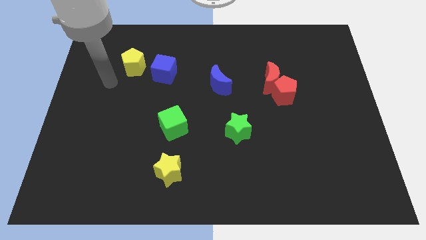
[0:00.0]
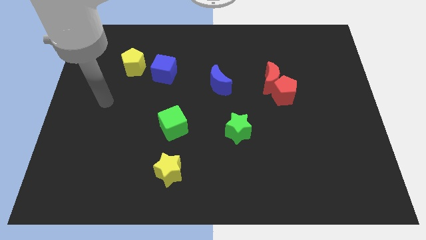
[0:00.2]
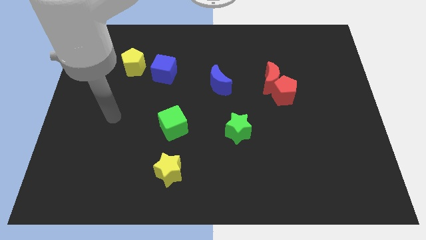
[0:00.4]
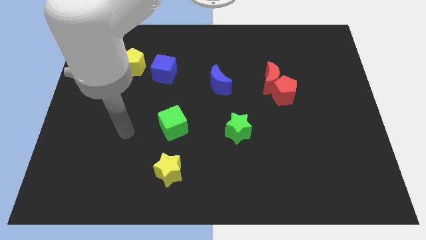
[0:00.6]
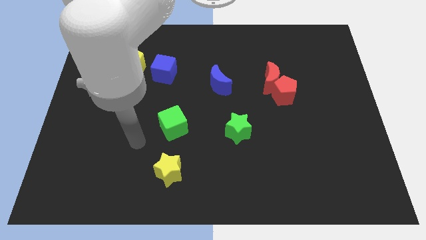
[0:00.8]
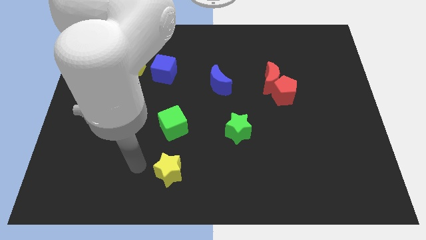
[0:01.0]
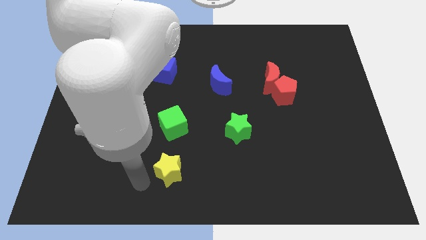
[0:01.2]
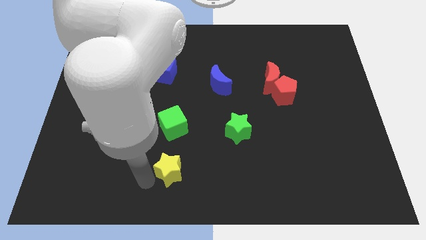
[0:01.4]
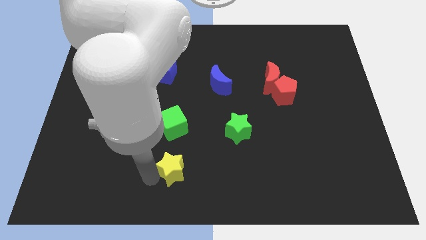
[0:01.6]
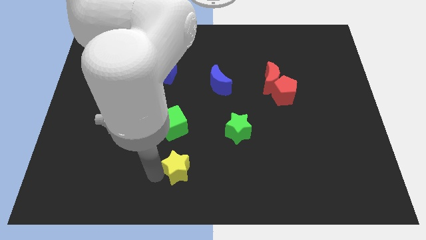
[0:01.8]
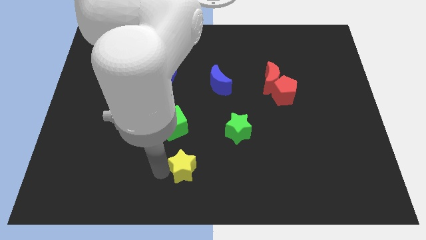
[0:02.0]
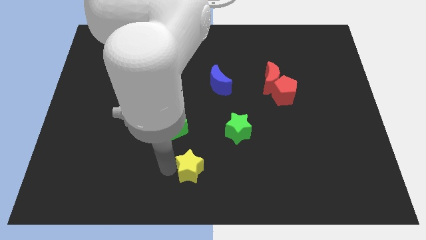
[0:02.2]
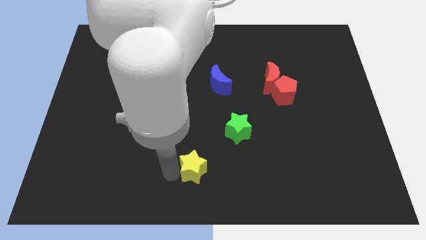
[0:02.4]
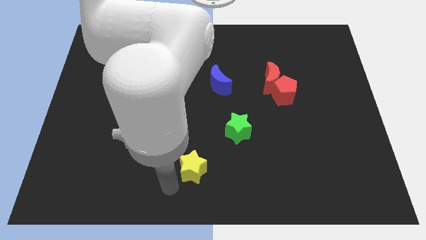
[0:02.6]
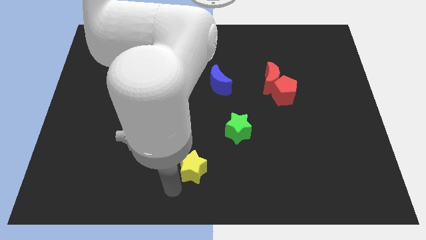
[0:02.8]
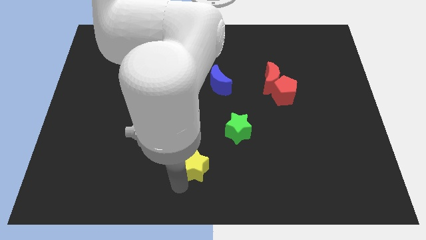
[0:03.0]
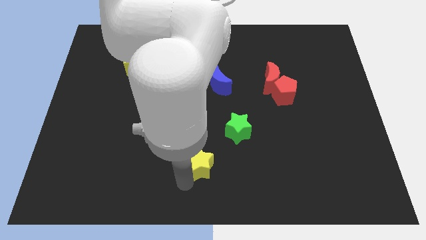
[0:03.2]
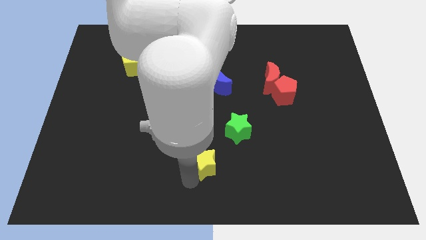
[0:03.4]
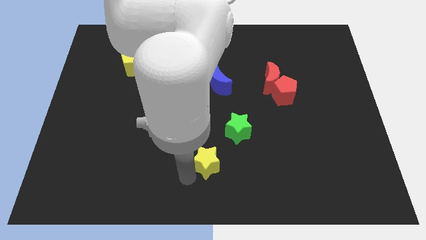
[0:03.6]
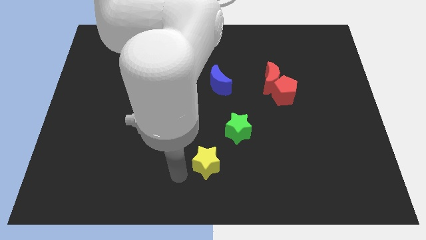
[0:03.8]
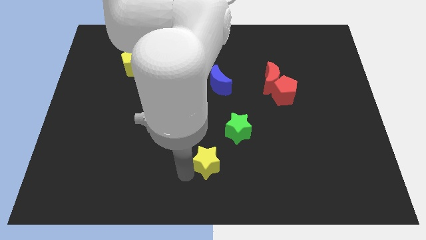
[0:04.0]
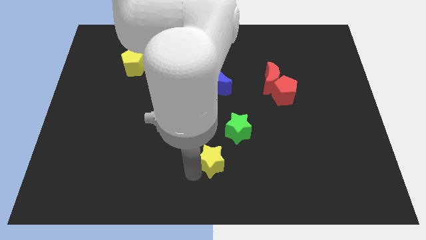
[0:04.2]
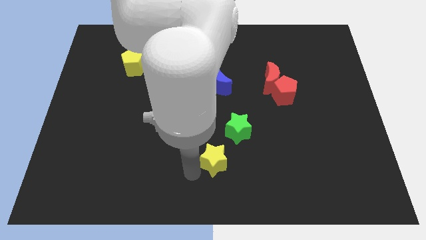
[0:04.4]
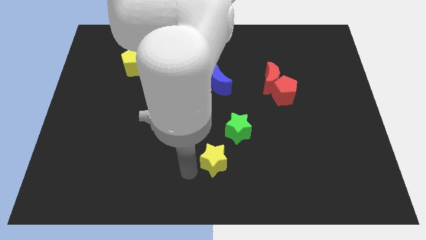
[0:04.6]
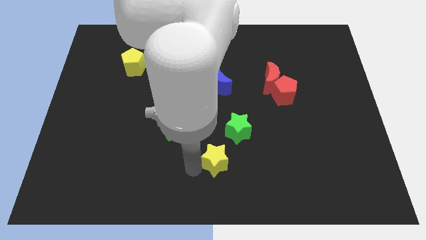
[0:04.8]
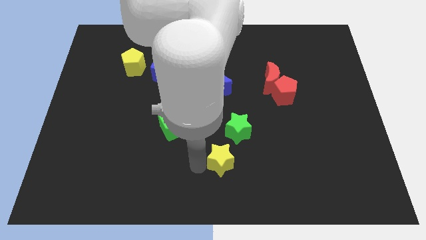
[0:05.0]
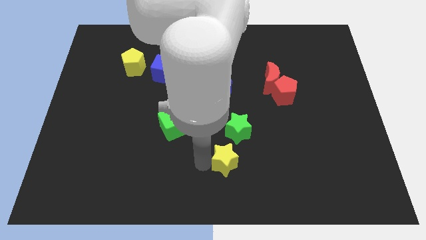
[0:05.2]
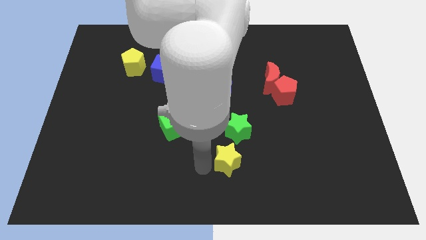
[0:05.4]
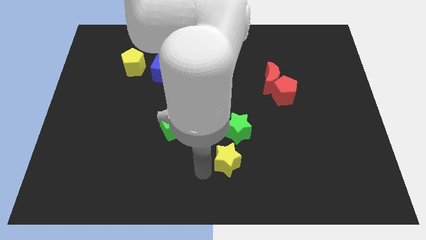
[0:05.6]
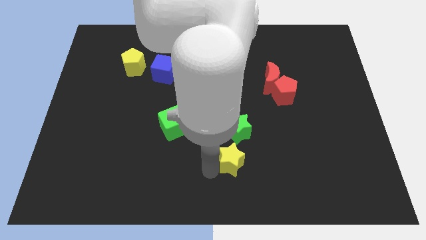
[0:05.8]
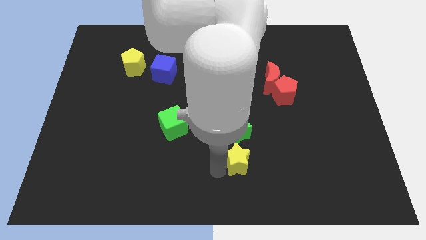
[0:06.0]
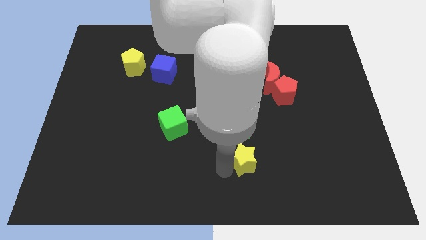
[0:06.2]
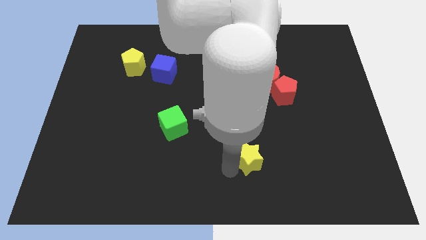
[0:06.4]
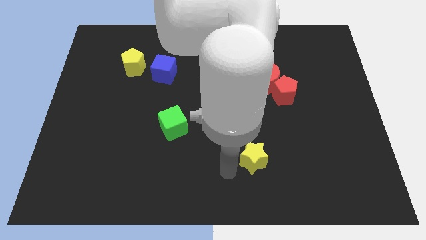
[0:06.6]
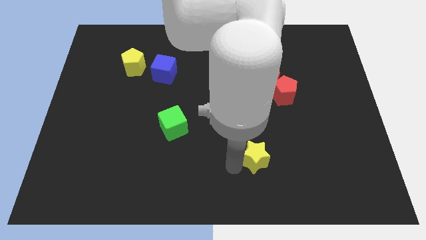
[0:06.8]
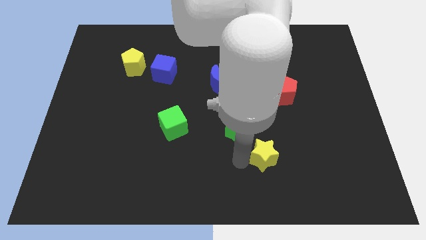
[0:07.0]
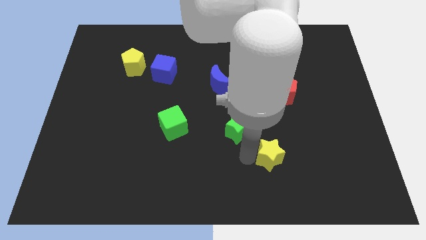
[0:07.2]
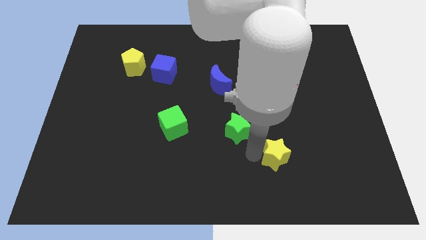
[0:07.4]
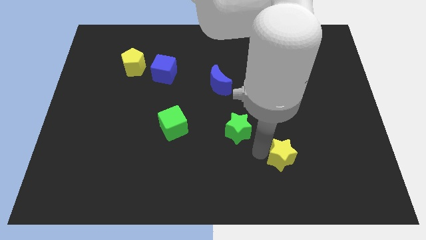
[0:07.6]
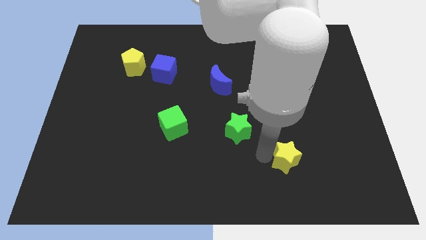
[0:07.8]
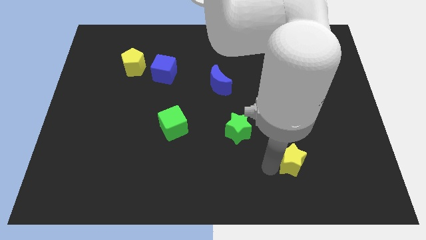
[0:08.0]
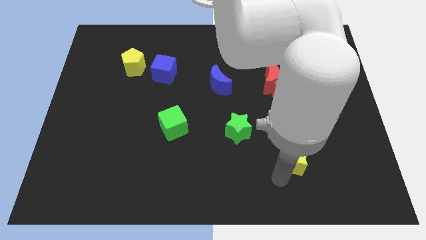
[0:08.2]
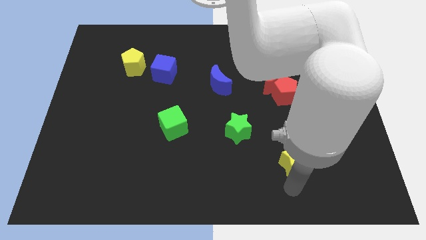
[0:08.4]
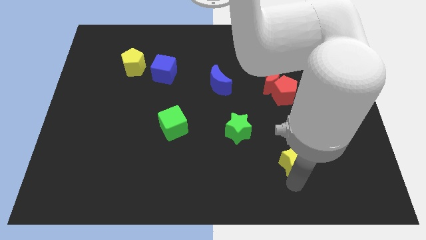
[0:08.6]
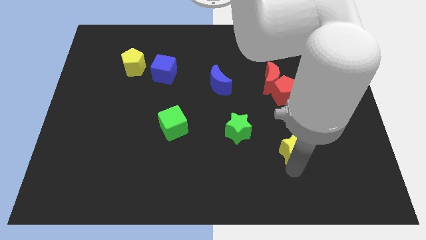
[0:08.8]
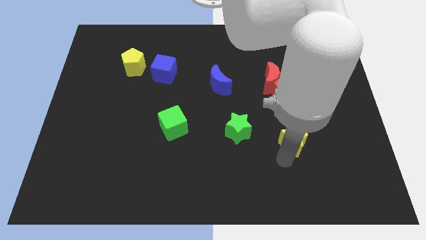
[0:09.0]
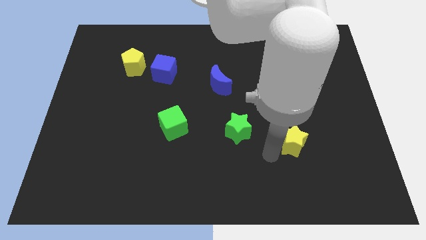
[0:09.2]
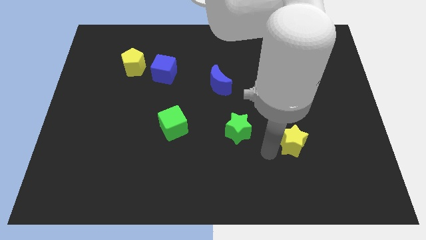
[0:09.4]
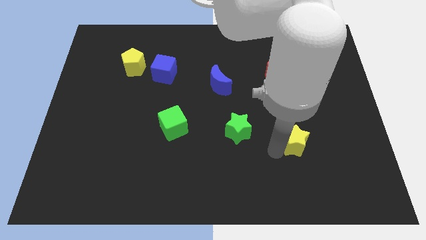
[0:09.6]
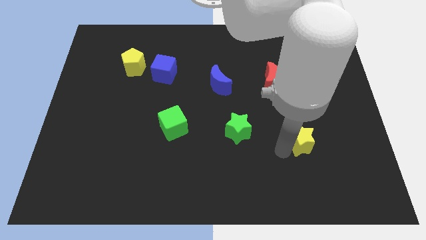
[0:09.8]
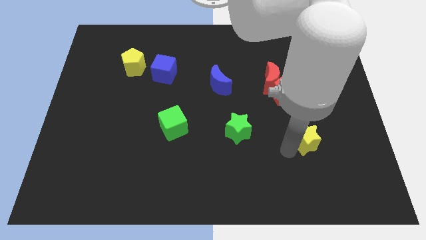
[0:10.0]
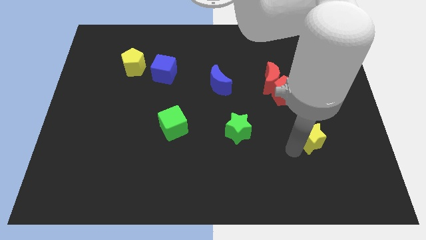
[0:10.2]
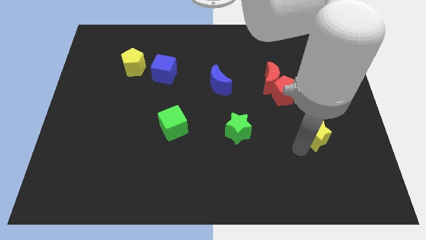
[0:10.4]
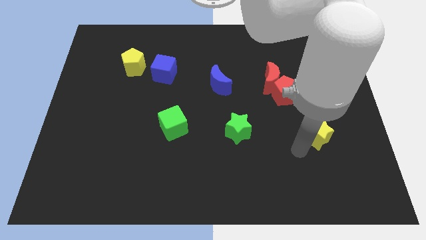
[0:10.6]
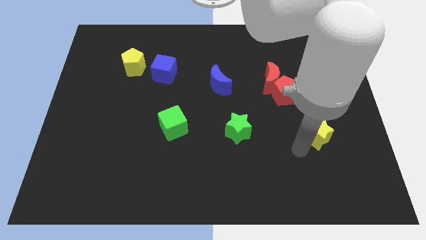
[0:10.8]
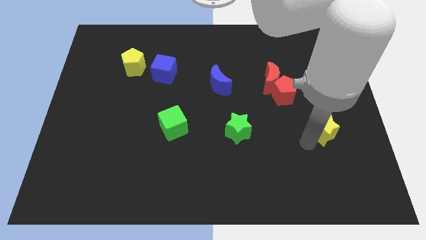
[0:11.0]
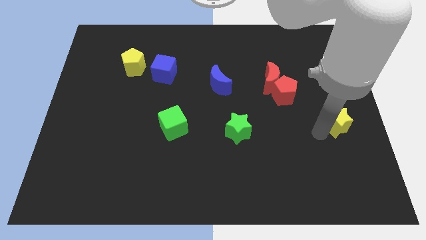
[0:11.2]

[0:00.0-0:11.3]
move the yellow star to the center right

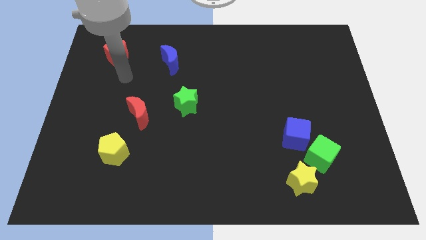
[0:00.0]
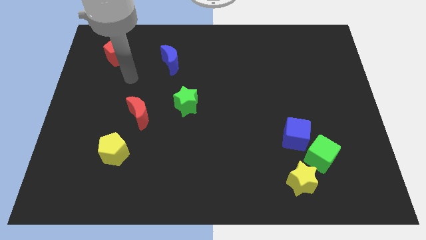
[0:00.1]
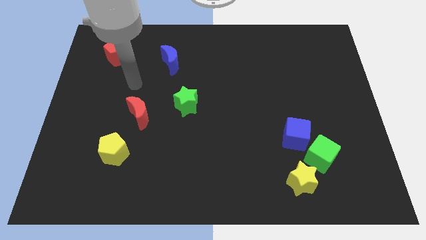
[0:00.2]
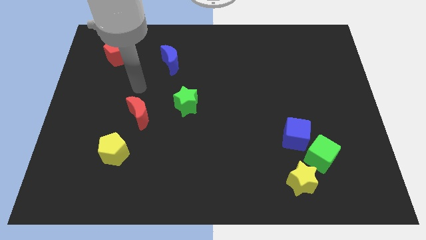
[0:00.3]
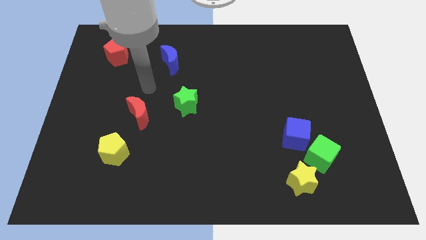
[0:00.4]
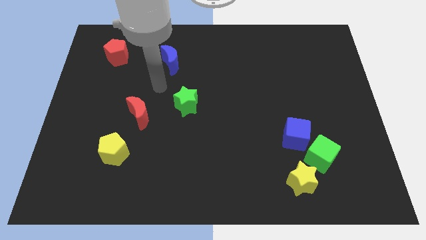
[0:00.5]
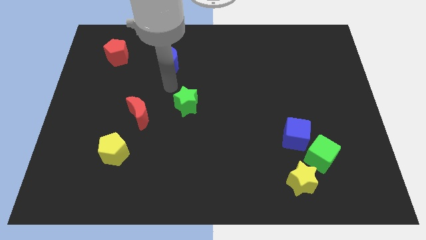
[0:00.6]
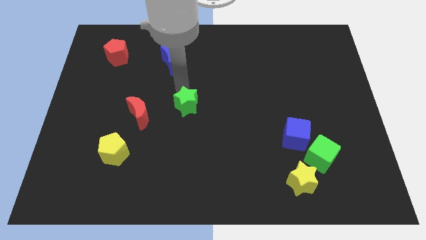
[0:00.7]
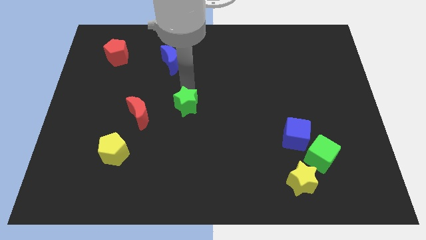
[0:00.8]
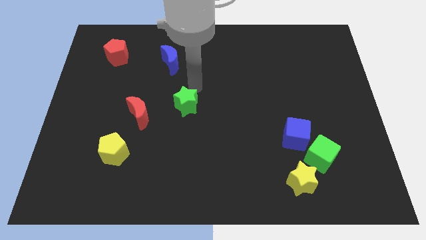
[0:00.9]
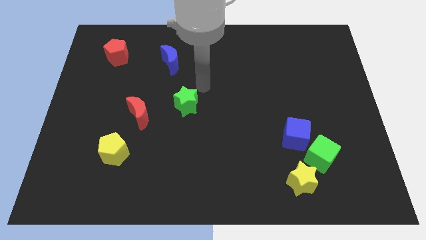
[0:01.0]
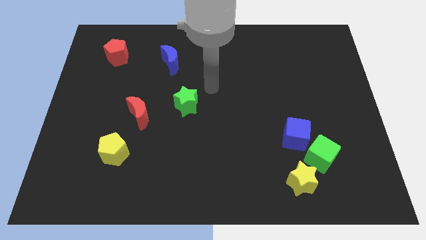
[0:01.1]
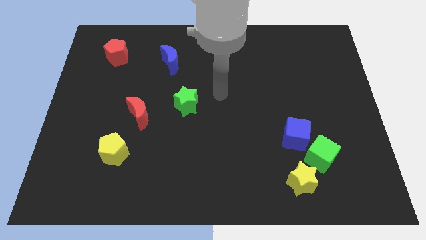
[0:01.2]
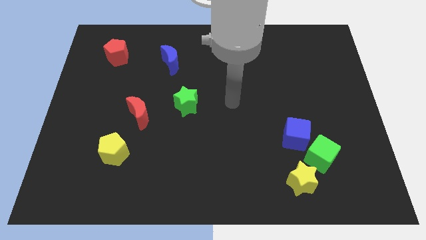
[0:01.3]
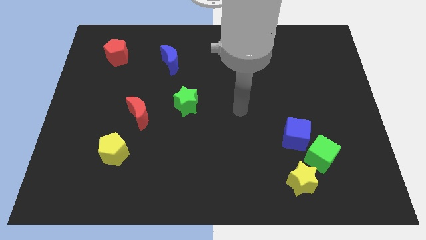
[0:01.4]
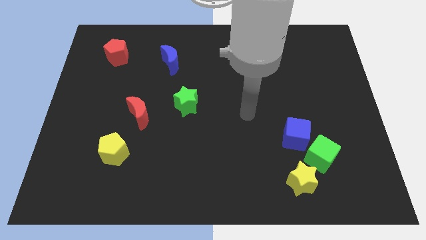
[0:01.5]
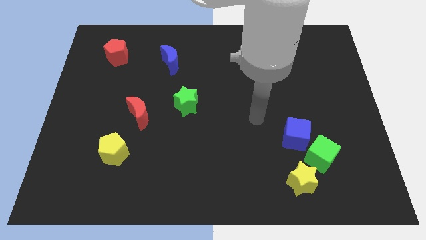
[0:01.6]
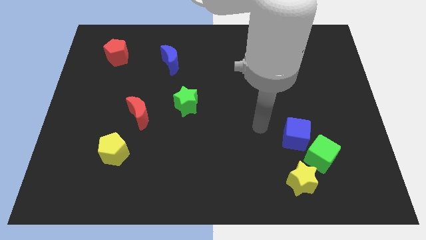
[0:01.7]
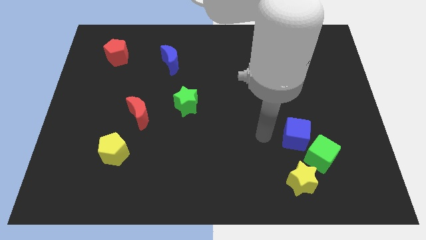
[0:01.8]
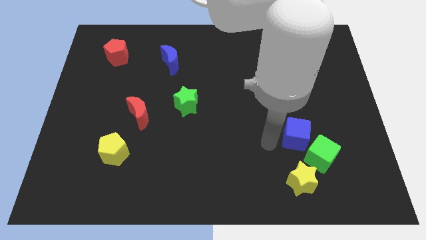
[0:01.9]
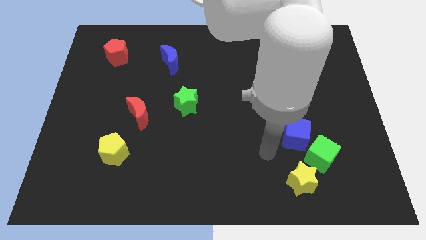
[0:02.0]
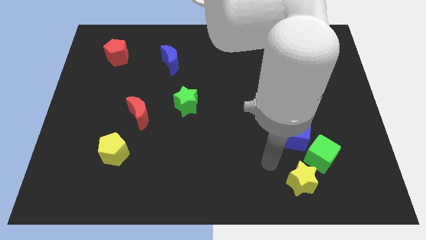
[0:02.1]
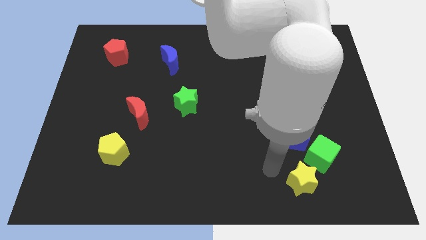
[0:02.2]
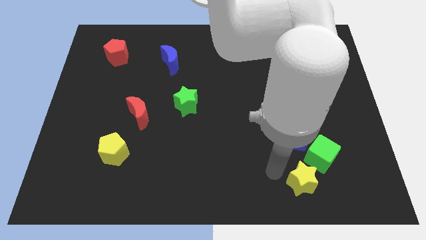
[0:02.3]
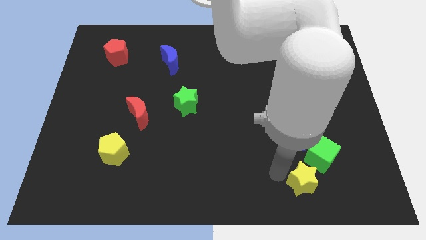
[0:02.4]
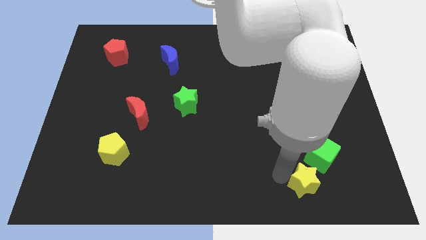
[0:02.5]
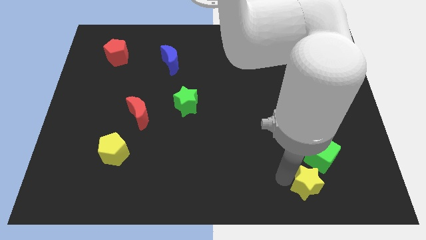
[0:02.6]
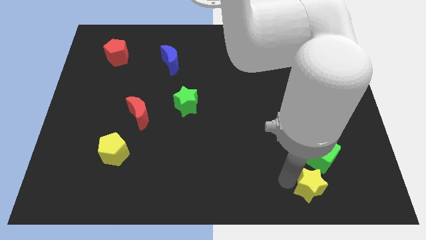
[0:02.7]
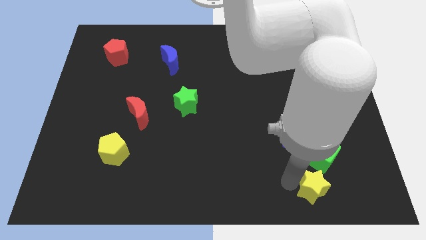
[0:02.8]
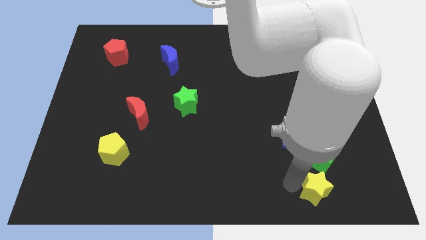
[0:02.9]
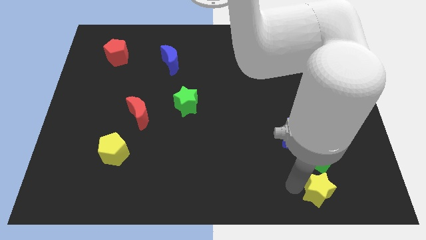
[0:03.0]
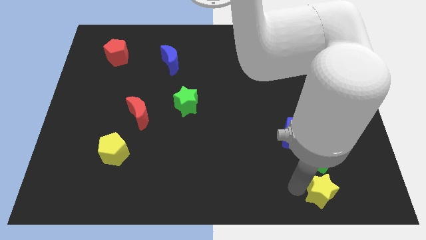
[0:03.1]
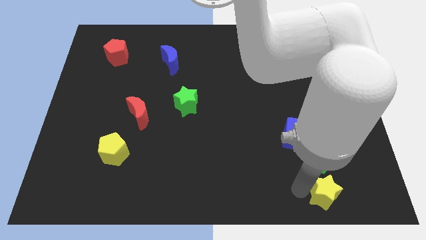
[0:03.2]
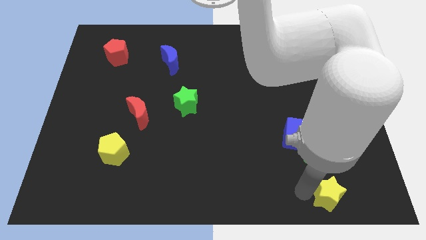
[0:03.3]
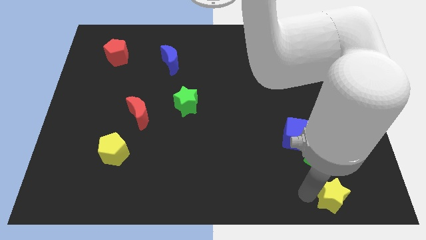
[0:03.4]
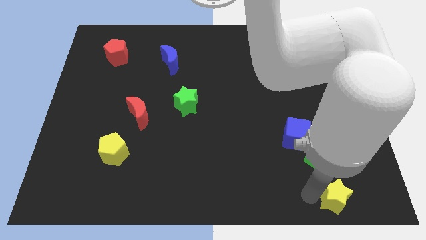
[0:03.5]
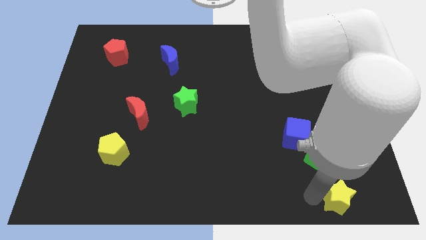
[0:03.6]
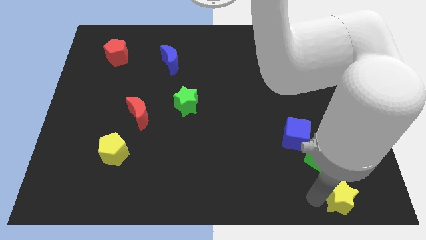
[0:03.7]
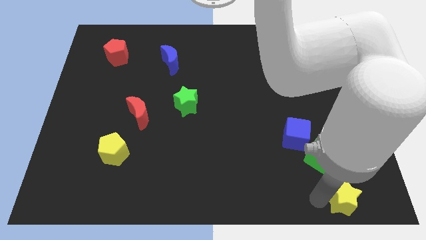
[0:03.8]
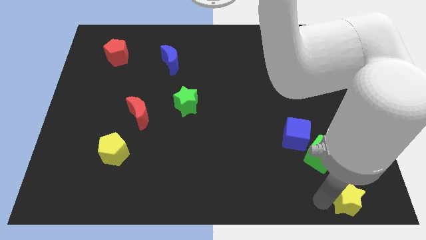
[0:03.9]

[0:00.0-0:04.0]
put the yellow star to the bottom right corner
